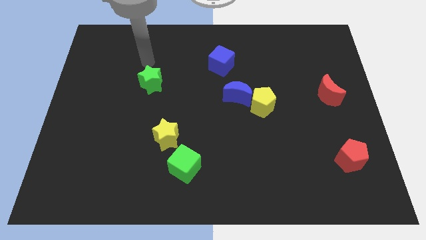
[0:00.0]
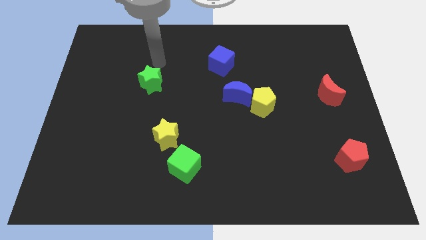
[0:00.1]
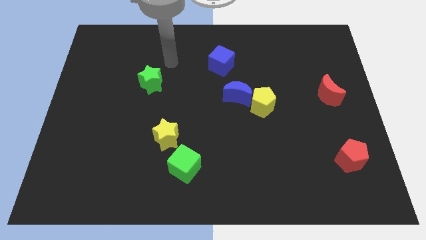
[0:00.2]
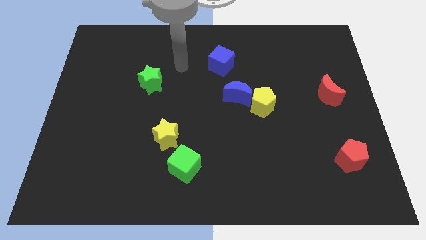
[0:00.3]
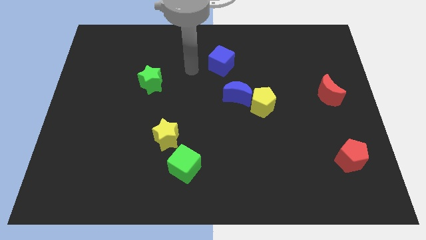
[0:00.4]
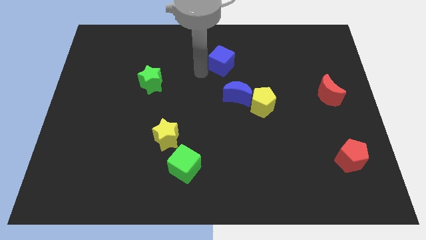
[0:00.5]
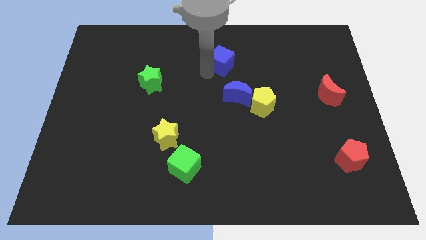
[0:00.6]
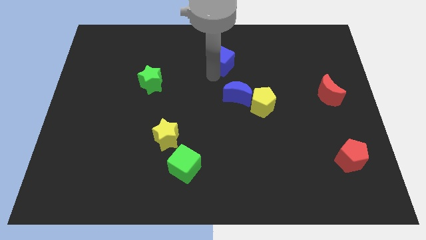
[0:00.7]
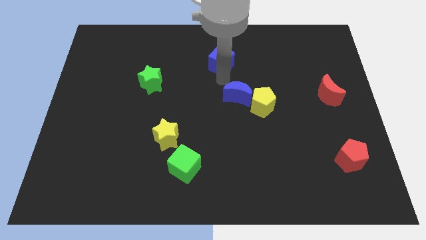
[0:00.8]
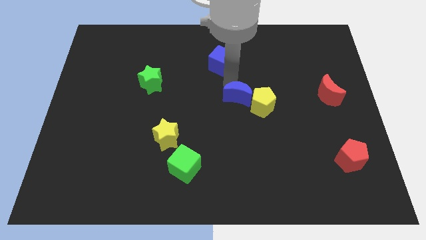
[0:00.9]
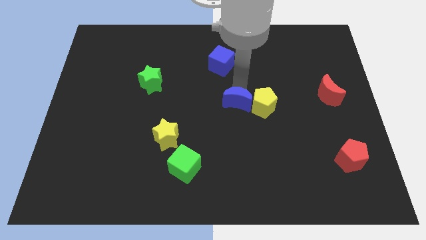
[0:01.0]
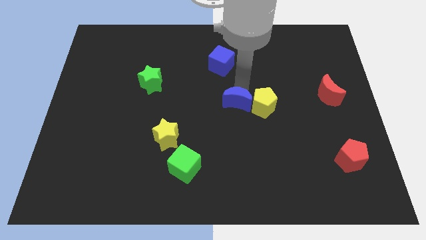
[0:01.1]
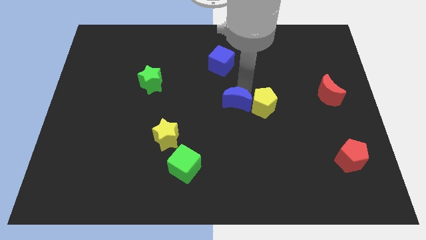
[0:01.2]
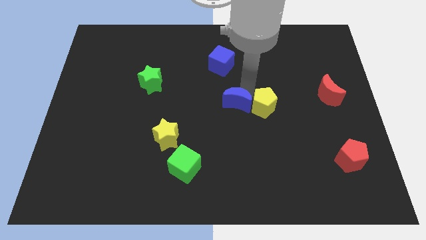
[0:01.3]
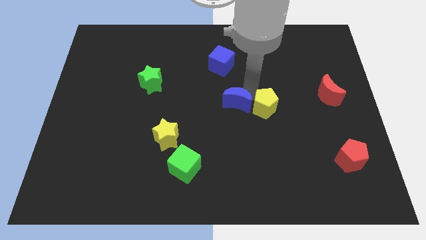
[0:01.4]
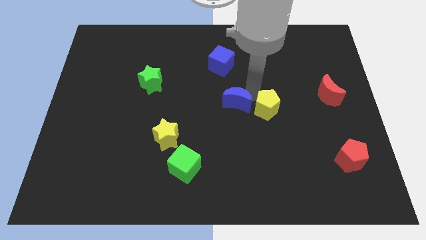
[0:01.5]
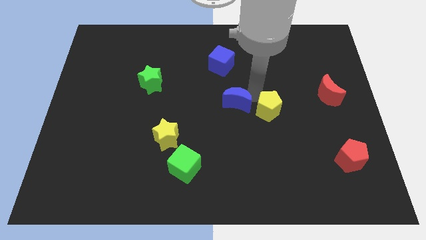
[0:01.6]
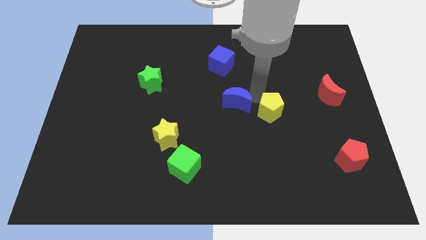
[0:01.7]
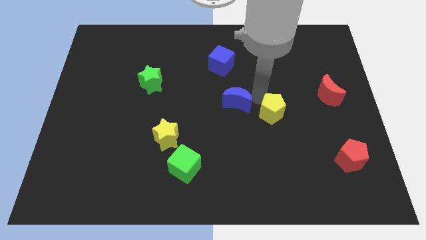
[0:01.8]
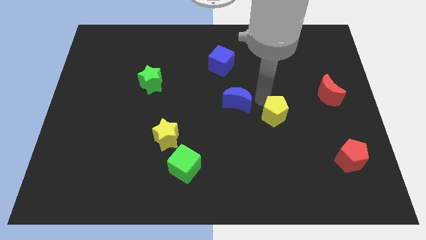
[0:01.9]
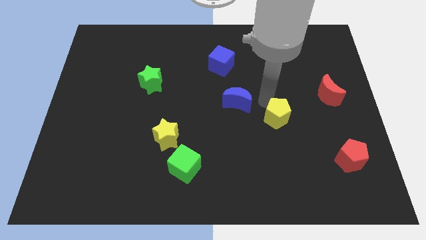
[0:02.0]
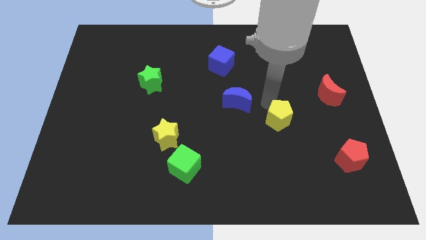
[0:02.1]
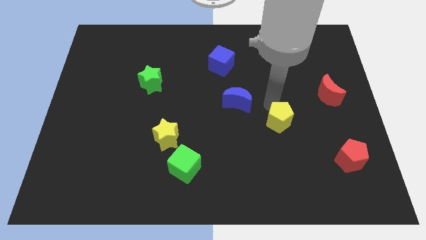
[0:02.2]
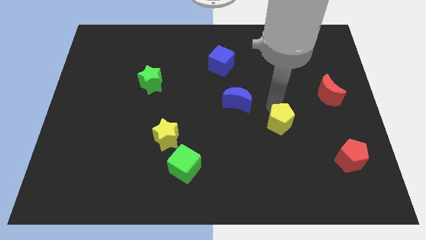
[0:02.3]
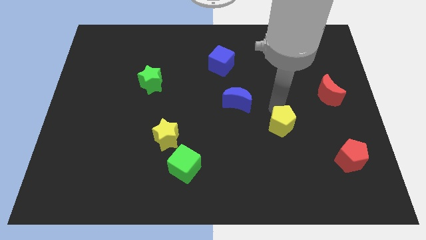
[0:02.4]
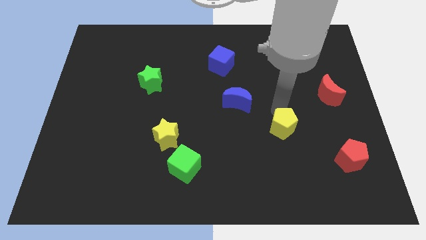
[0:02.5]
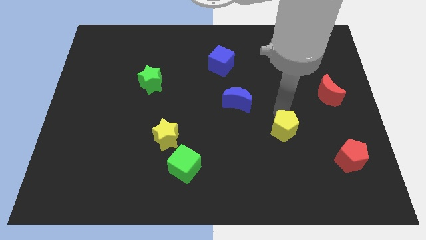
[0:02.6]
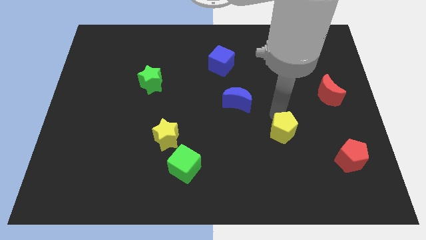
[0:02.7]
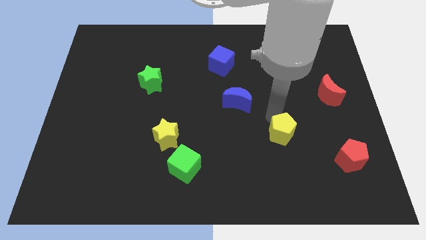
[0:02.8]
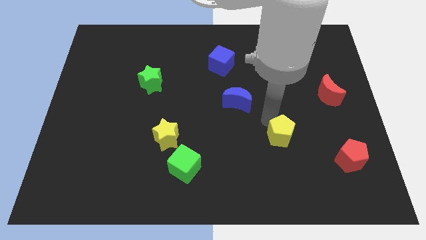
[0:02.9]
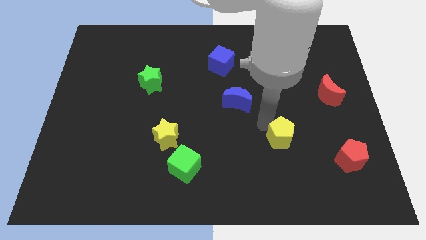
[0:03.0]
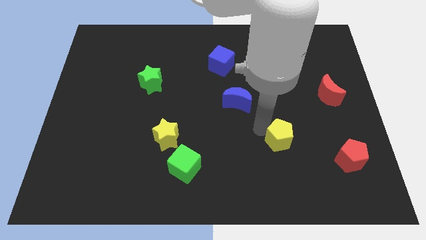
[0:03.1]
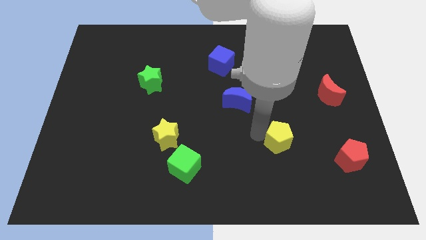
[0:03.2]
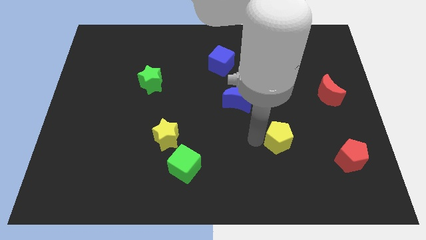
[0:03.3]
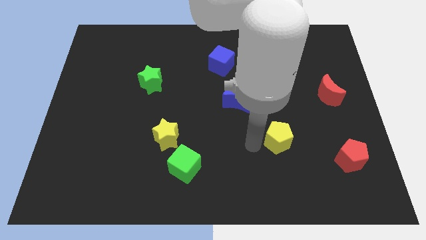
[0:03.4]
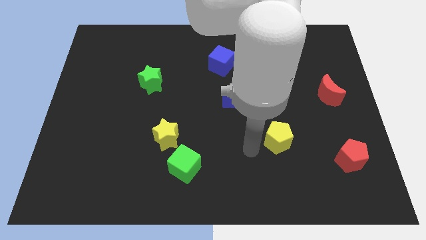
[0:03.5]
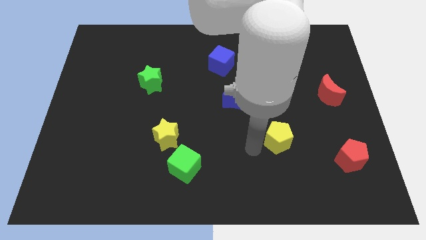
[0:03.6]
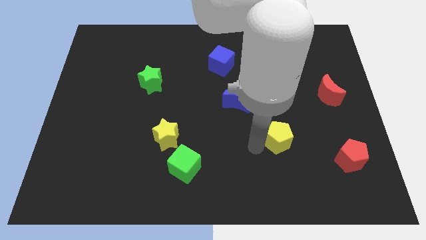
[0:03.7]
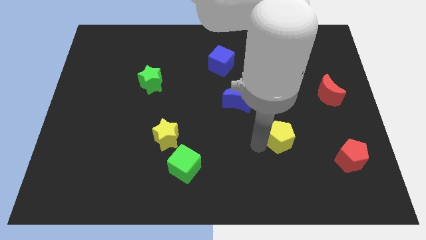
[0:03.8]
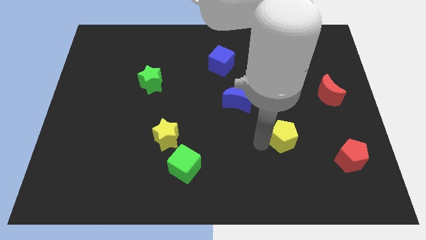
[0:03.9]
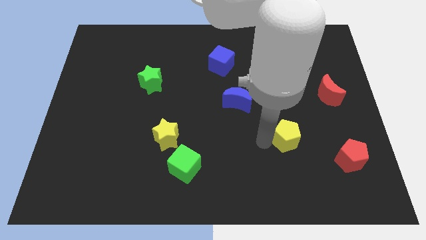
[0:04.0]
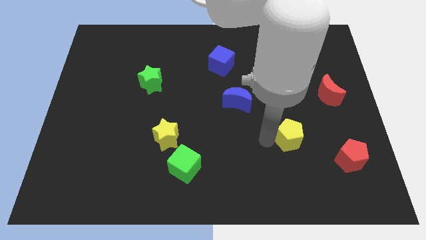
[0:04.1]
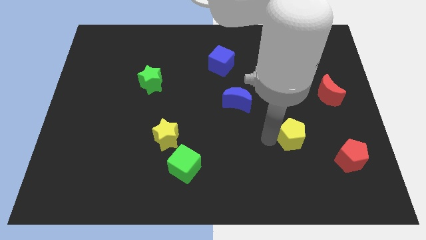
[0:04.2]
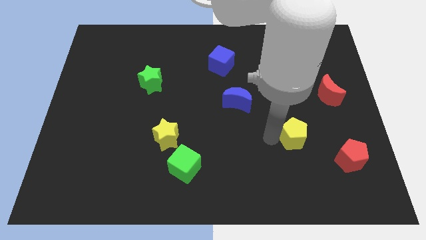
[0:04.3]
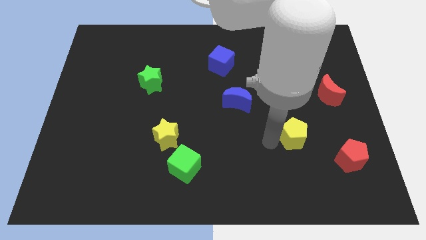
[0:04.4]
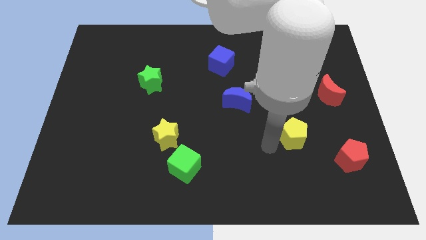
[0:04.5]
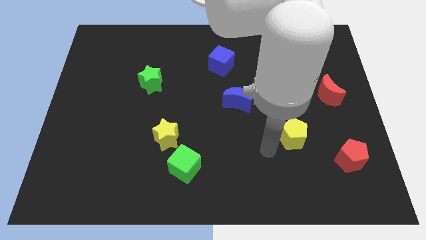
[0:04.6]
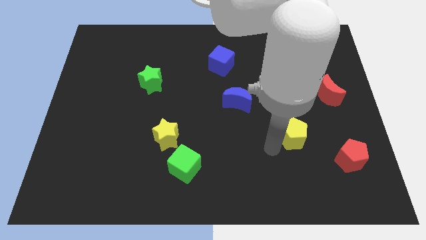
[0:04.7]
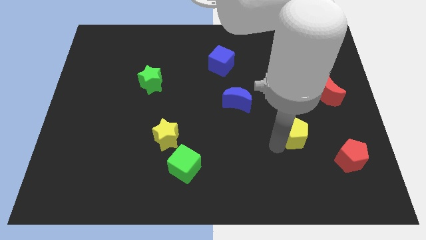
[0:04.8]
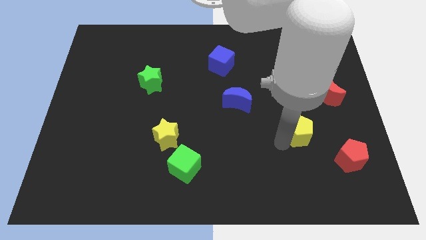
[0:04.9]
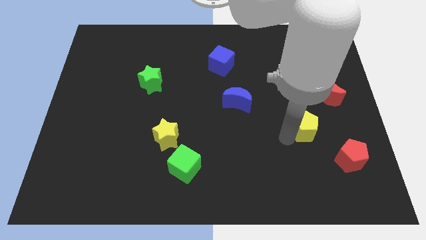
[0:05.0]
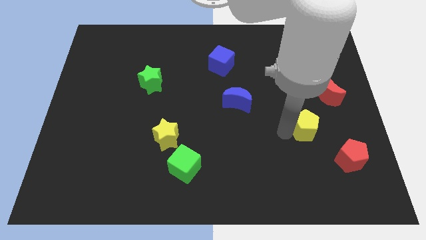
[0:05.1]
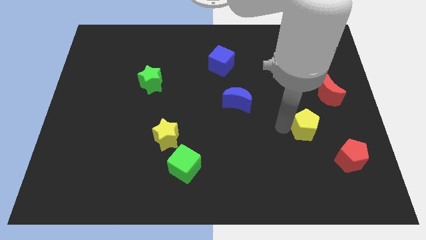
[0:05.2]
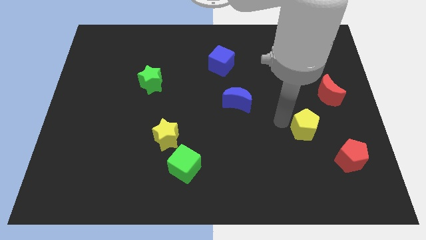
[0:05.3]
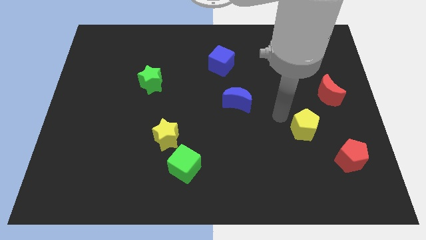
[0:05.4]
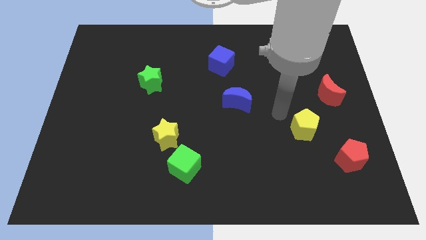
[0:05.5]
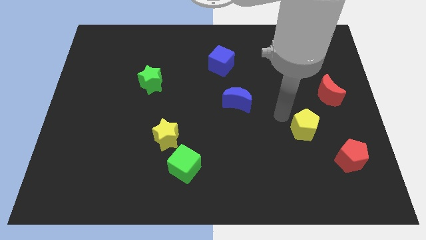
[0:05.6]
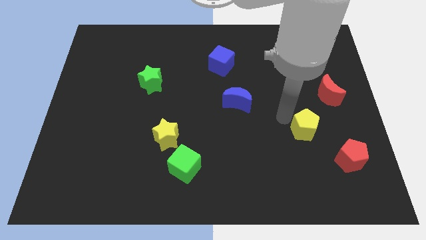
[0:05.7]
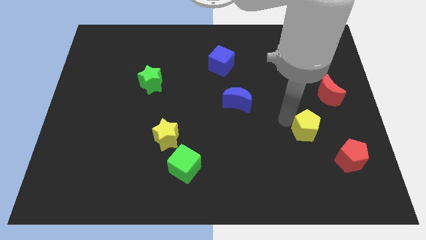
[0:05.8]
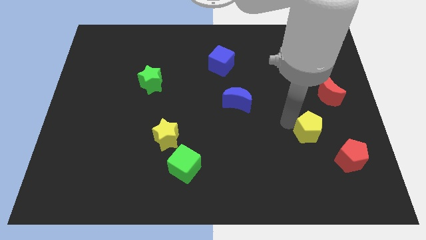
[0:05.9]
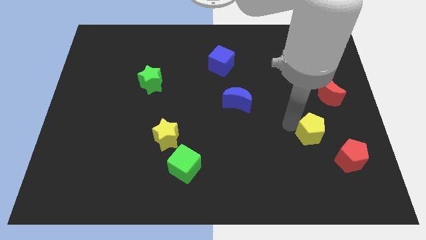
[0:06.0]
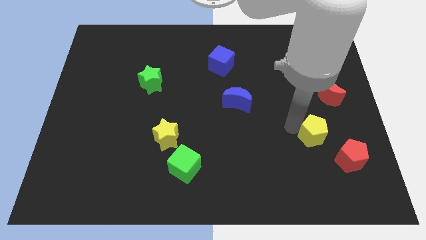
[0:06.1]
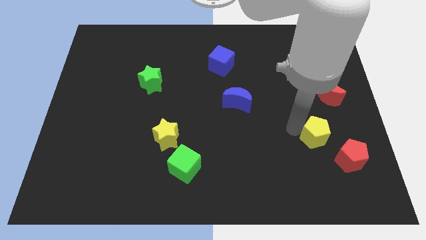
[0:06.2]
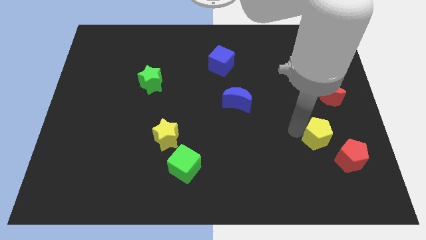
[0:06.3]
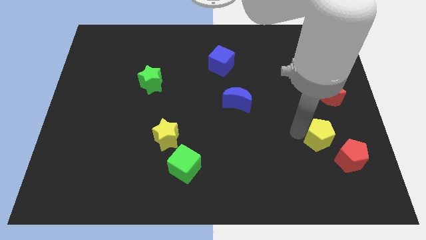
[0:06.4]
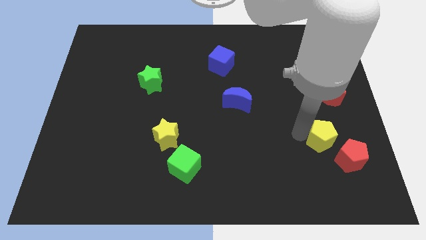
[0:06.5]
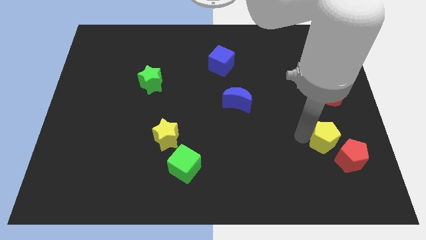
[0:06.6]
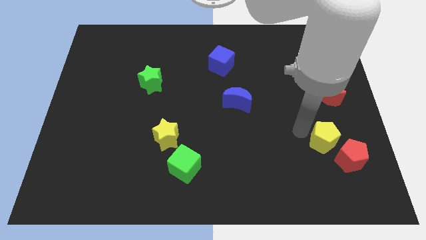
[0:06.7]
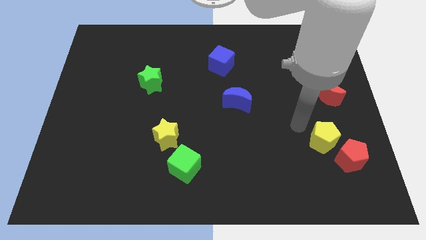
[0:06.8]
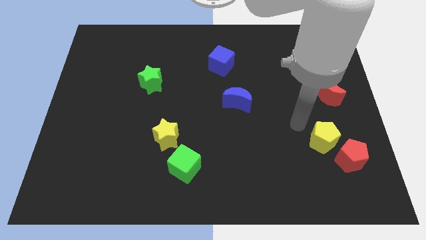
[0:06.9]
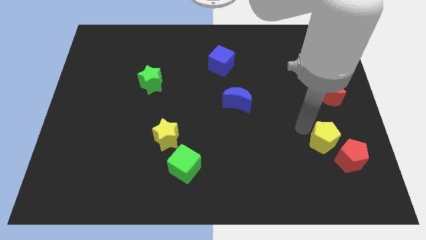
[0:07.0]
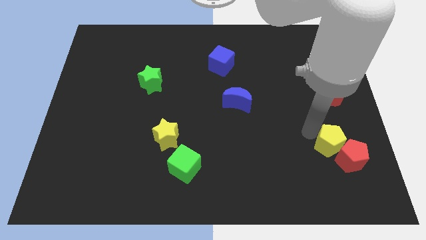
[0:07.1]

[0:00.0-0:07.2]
push the yellow pentagon next to the red pentagon

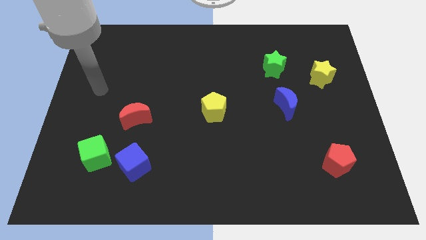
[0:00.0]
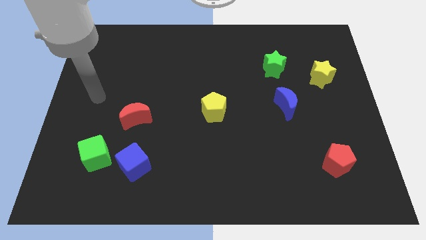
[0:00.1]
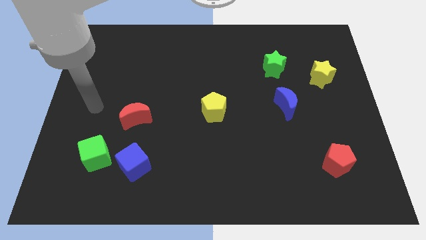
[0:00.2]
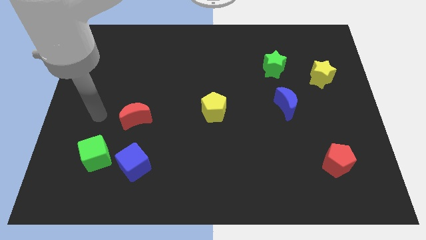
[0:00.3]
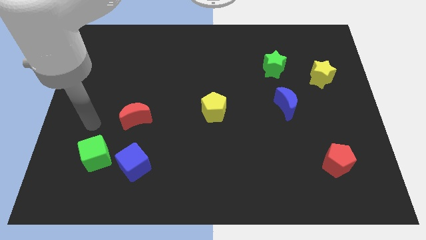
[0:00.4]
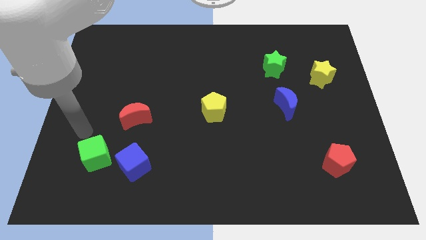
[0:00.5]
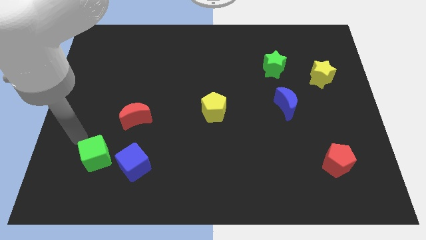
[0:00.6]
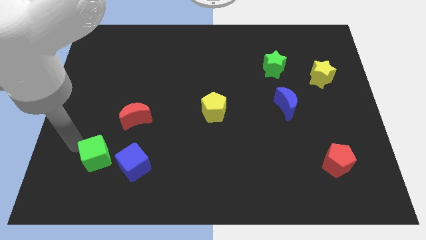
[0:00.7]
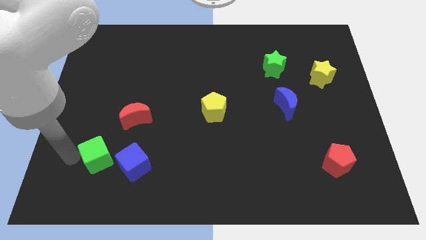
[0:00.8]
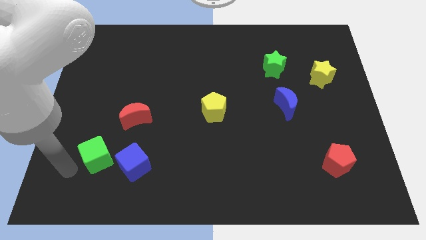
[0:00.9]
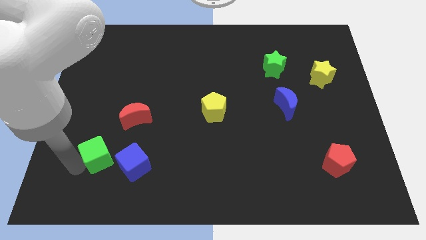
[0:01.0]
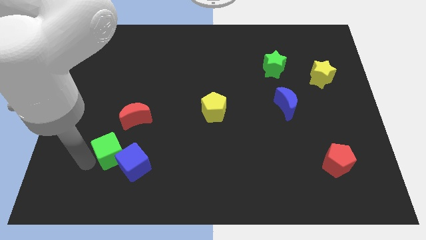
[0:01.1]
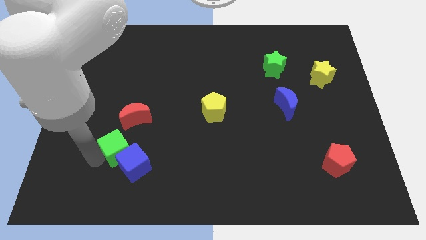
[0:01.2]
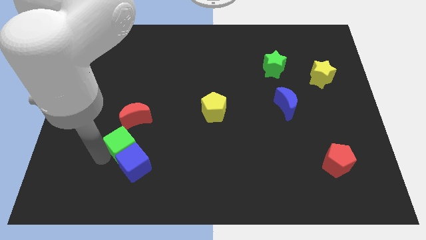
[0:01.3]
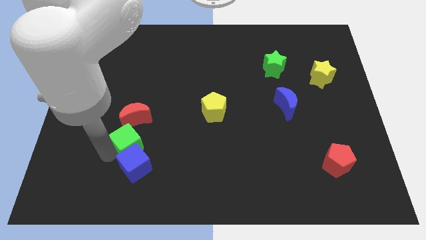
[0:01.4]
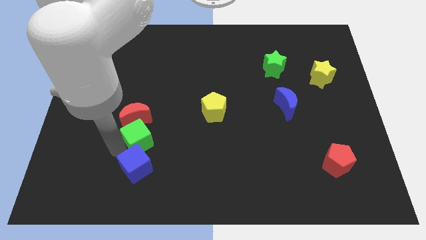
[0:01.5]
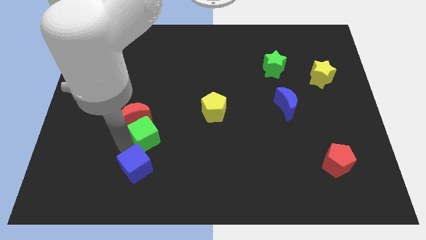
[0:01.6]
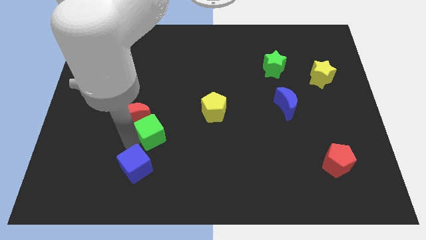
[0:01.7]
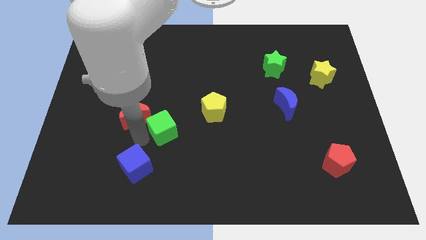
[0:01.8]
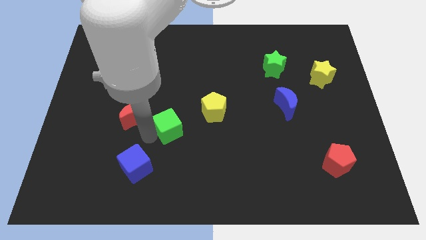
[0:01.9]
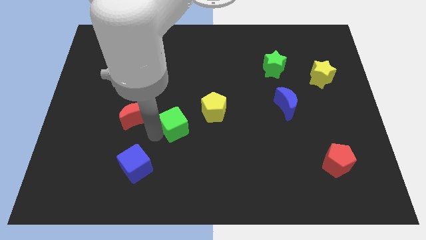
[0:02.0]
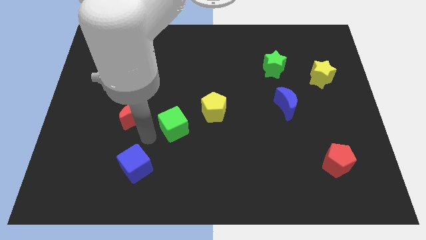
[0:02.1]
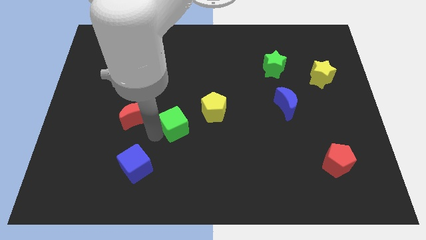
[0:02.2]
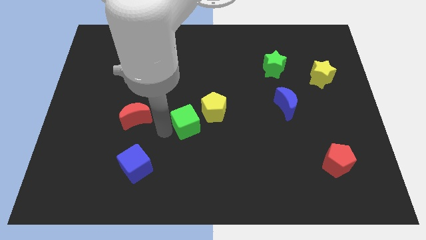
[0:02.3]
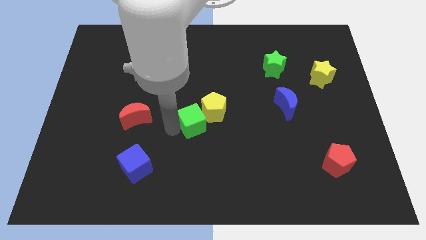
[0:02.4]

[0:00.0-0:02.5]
put the green cube to the yellow pentagon
